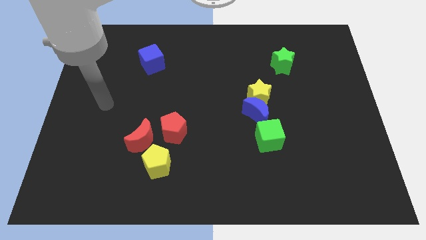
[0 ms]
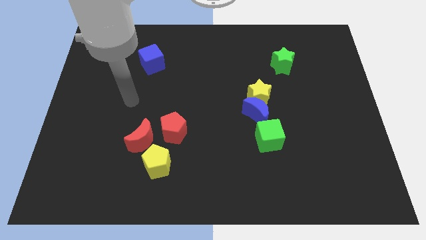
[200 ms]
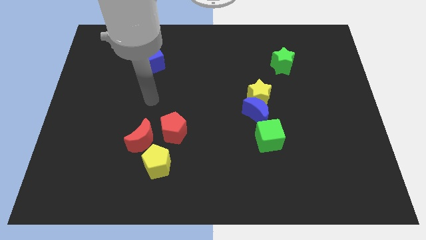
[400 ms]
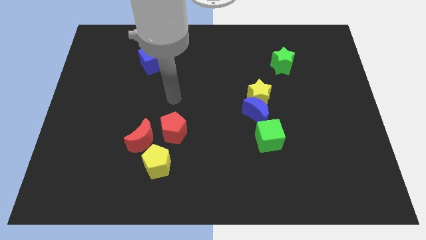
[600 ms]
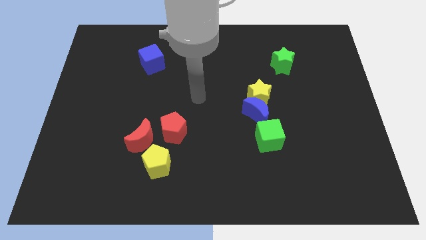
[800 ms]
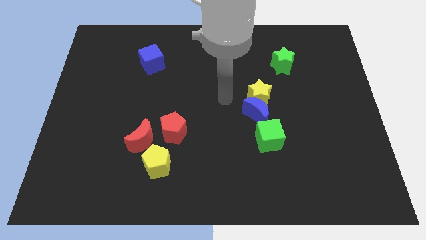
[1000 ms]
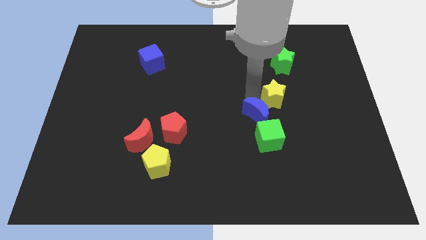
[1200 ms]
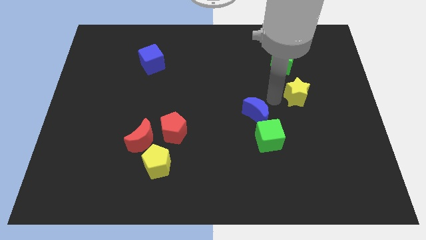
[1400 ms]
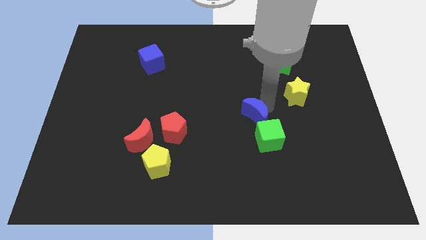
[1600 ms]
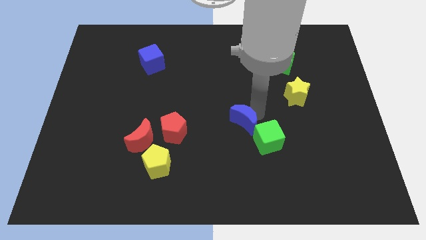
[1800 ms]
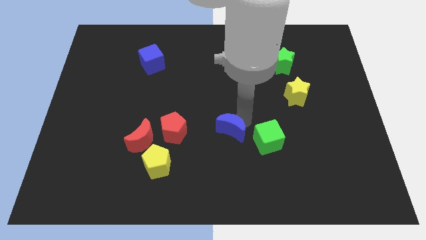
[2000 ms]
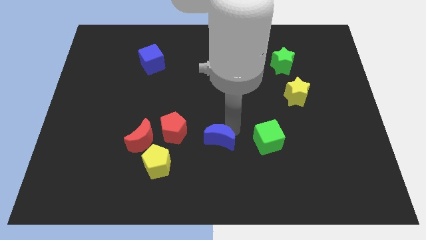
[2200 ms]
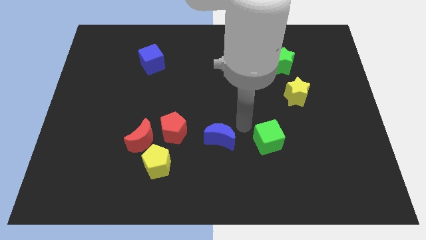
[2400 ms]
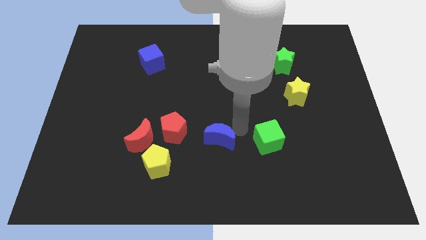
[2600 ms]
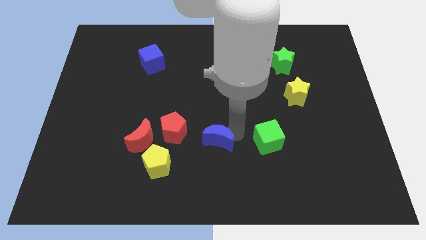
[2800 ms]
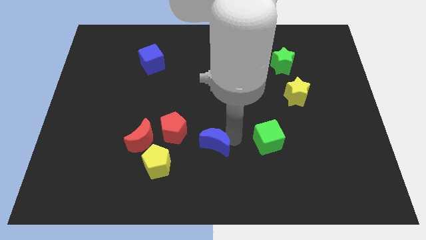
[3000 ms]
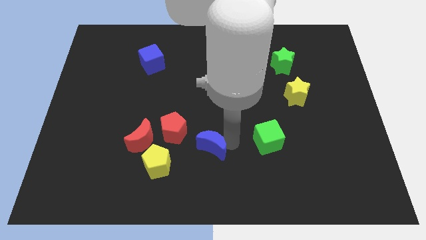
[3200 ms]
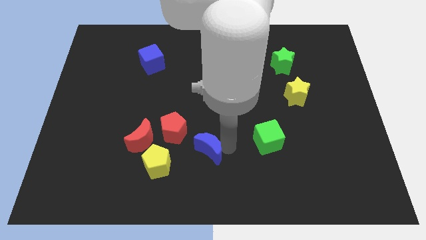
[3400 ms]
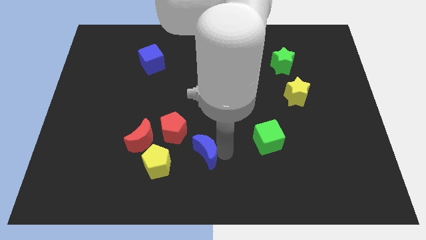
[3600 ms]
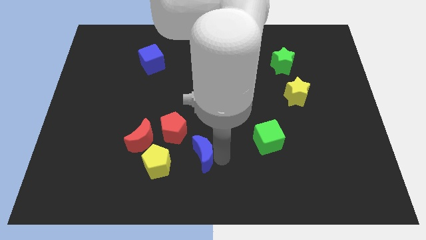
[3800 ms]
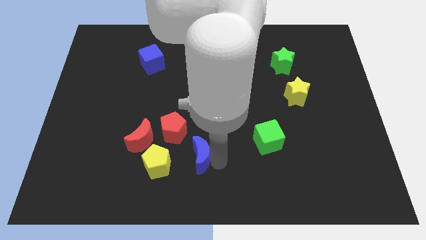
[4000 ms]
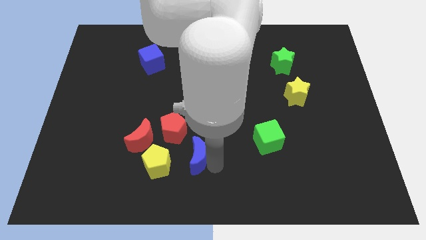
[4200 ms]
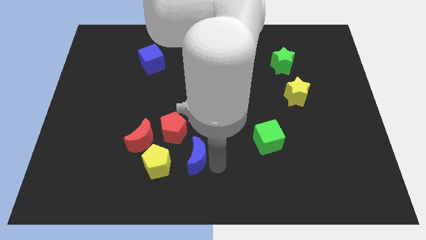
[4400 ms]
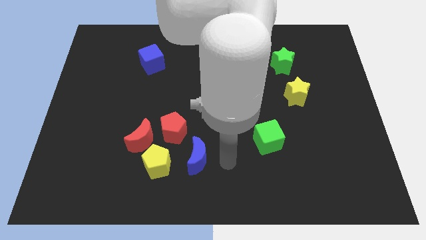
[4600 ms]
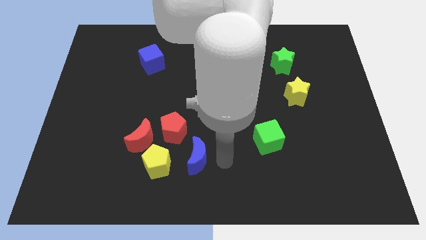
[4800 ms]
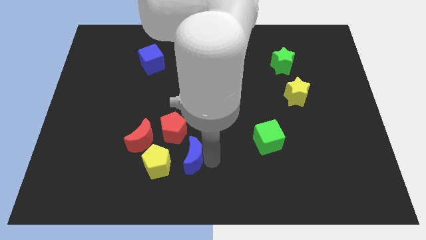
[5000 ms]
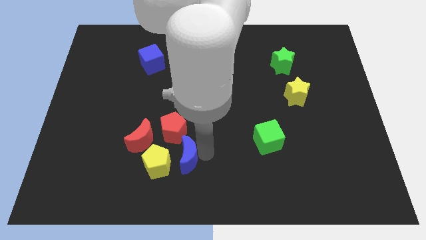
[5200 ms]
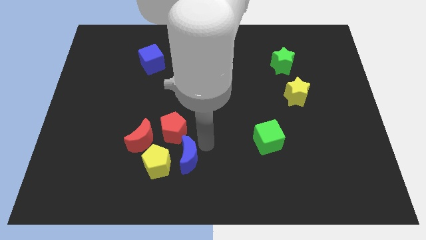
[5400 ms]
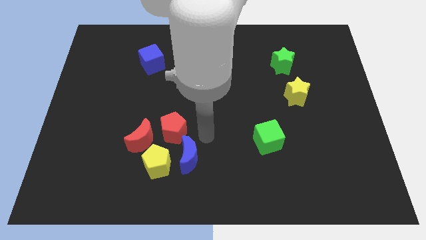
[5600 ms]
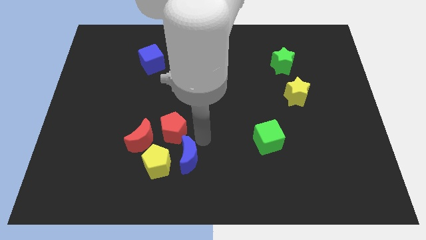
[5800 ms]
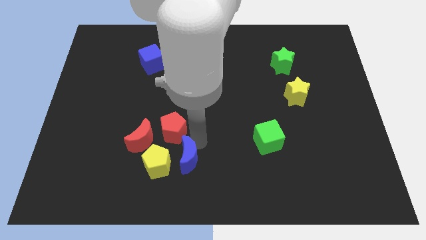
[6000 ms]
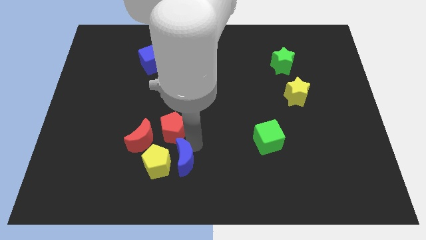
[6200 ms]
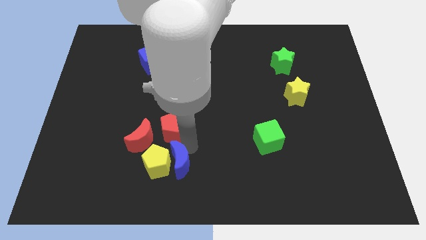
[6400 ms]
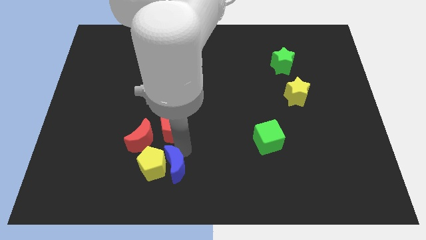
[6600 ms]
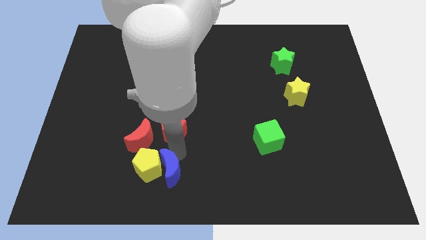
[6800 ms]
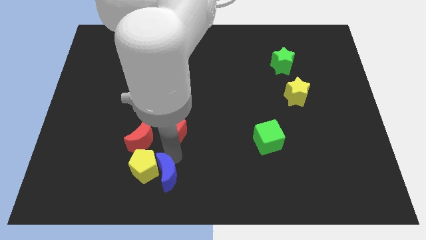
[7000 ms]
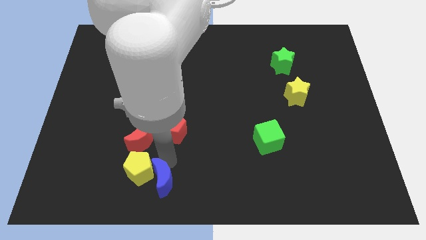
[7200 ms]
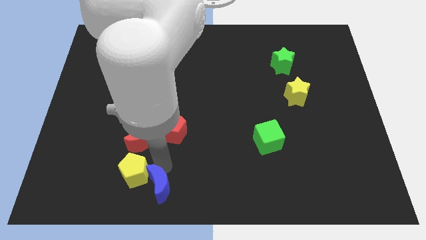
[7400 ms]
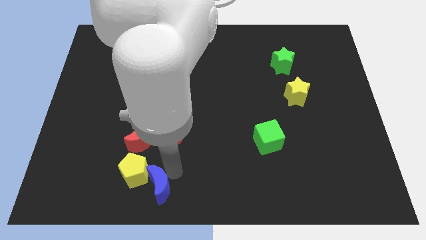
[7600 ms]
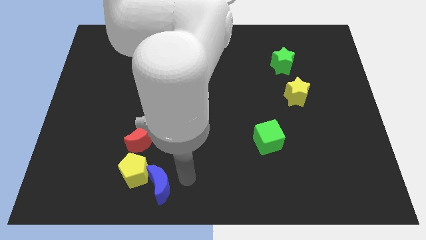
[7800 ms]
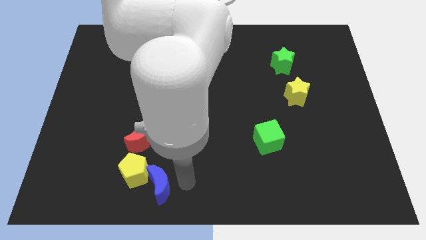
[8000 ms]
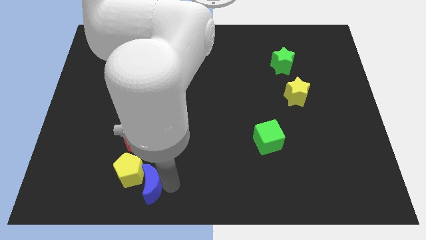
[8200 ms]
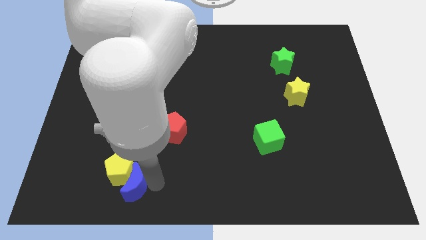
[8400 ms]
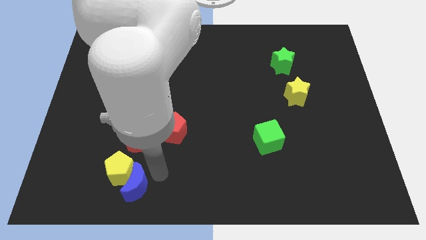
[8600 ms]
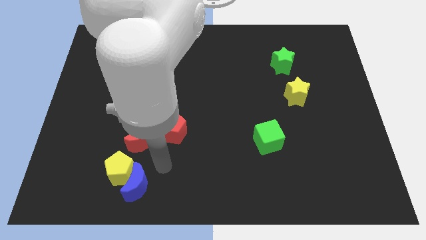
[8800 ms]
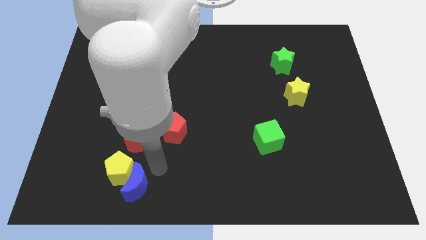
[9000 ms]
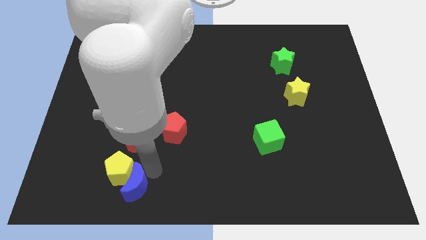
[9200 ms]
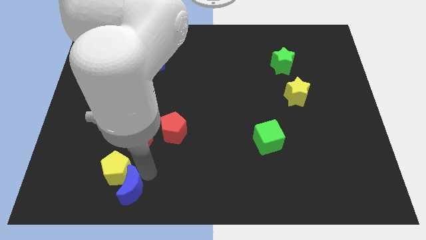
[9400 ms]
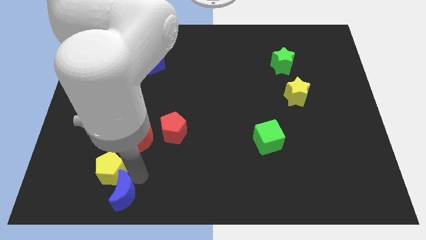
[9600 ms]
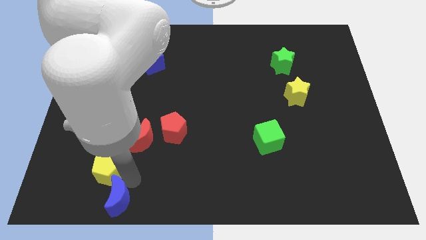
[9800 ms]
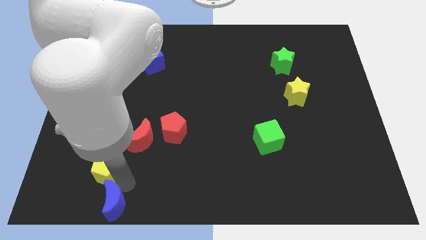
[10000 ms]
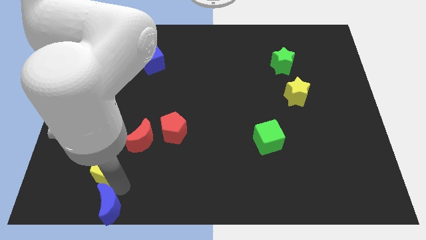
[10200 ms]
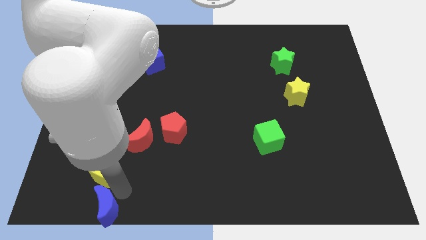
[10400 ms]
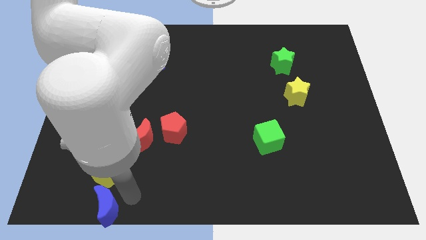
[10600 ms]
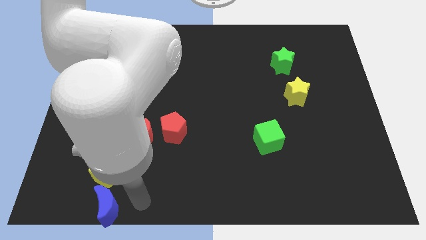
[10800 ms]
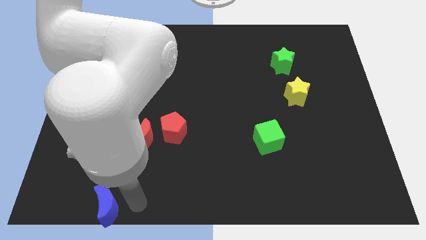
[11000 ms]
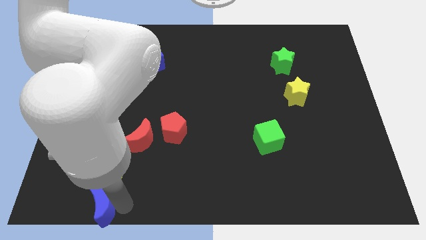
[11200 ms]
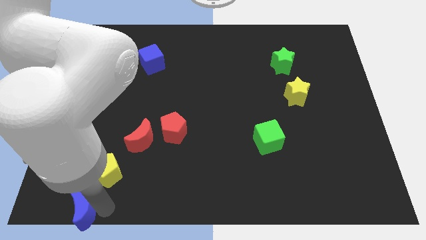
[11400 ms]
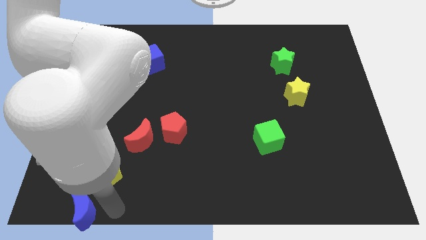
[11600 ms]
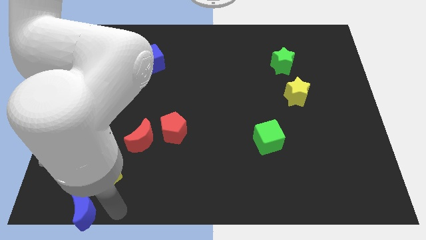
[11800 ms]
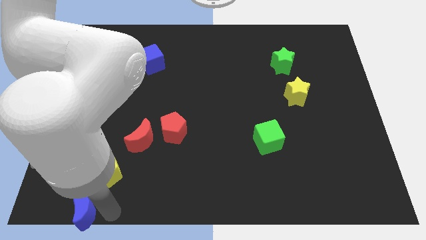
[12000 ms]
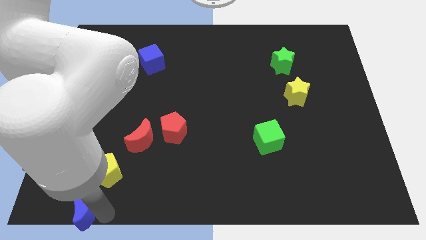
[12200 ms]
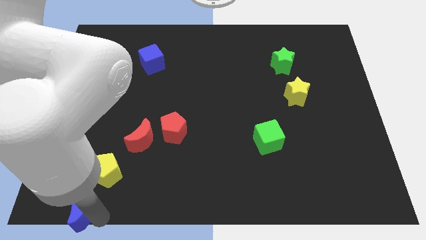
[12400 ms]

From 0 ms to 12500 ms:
put the blue moon to the bottom left of the board

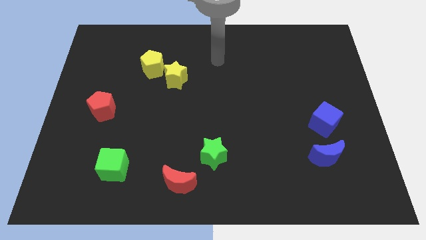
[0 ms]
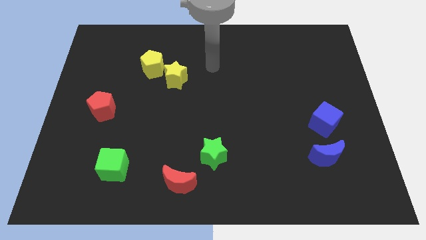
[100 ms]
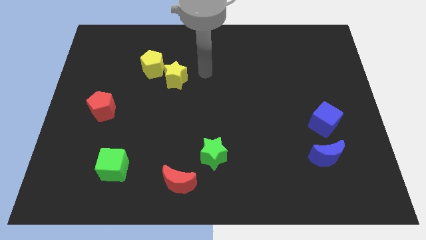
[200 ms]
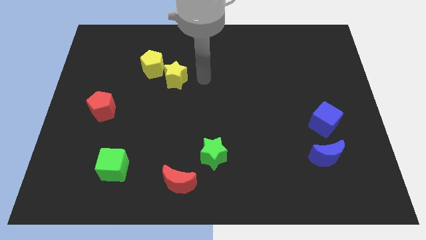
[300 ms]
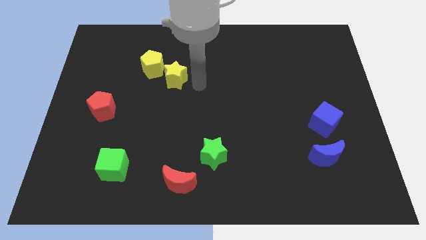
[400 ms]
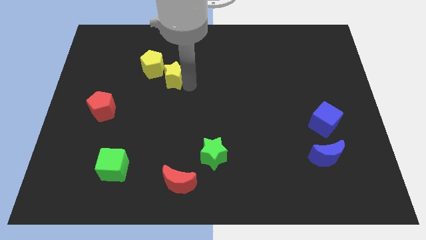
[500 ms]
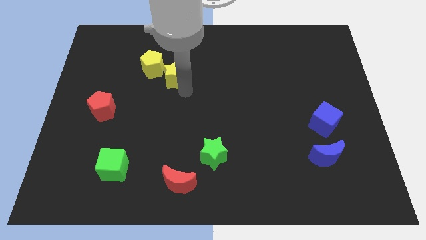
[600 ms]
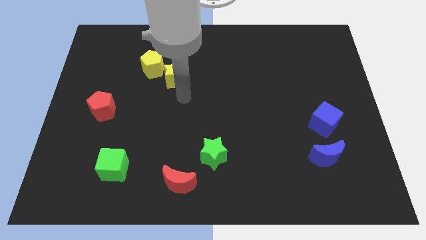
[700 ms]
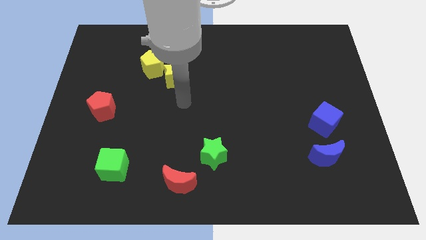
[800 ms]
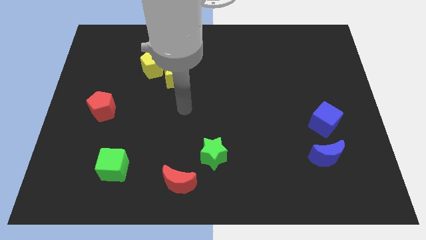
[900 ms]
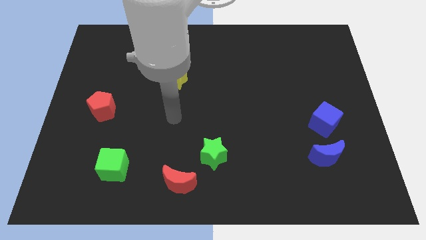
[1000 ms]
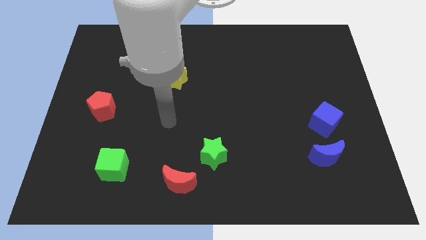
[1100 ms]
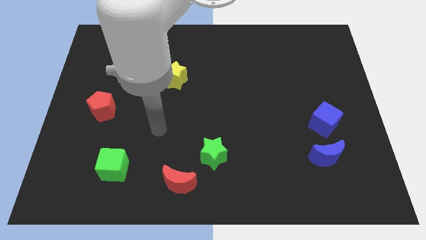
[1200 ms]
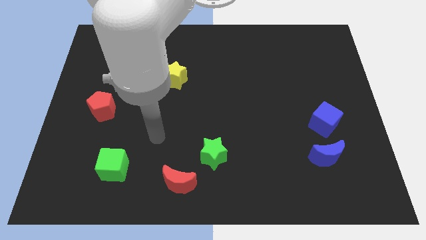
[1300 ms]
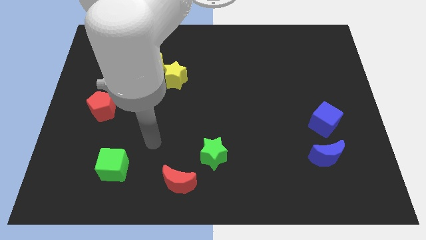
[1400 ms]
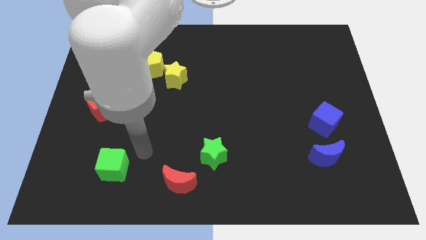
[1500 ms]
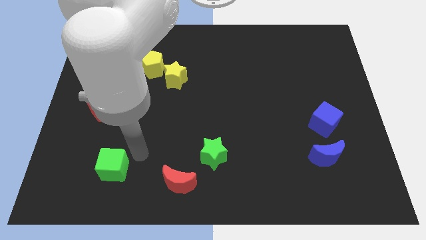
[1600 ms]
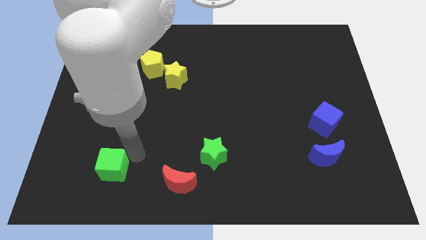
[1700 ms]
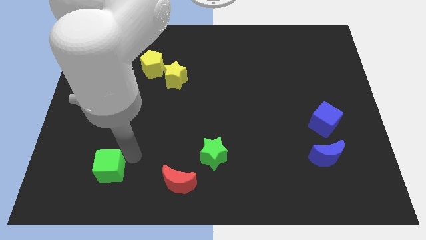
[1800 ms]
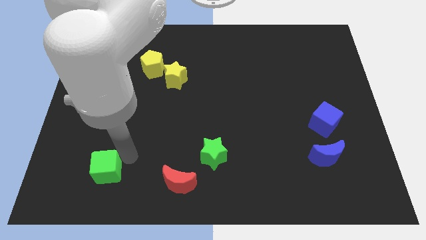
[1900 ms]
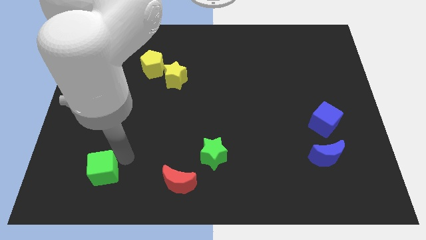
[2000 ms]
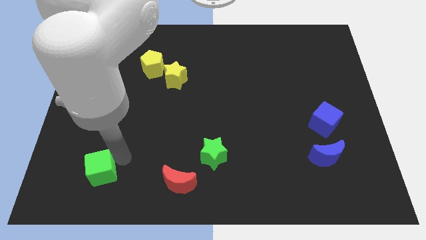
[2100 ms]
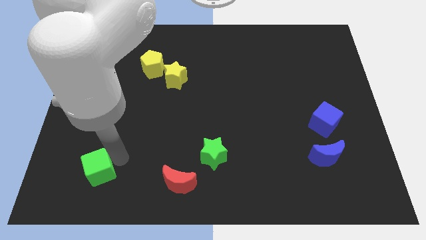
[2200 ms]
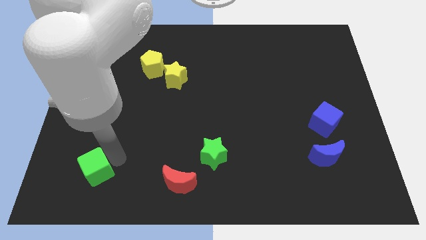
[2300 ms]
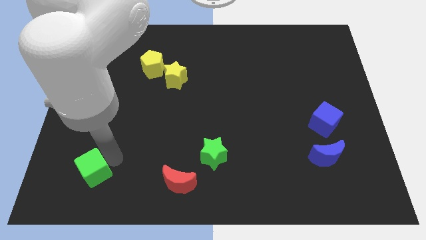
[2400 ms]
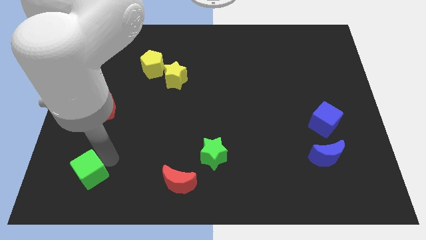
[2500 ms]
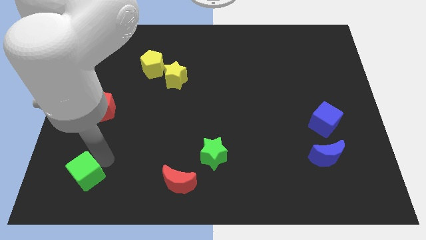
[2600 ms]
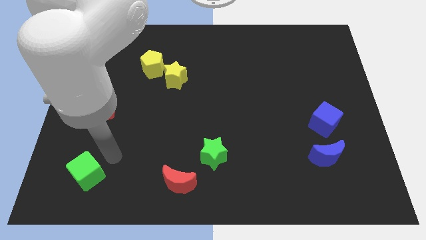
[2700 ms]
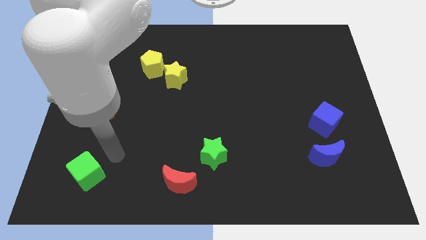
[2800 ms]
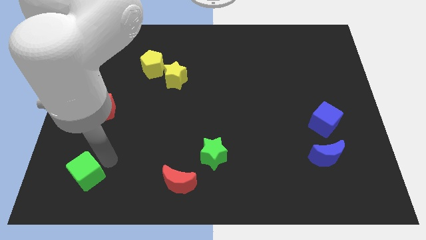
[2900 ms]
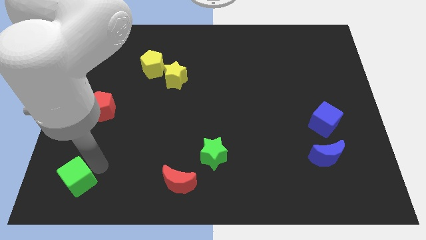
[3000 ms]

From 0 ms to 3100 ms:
move the green cube to the lower left corner
